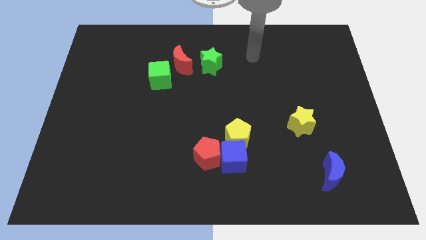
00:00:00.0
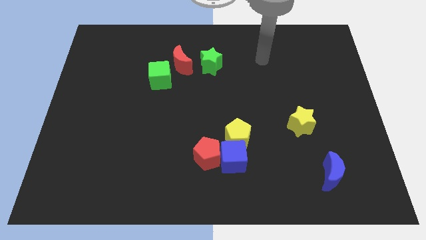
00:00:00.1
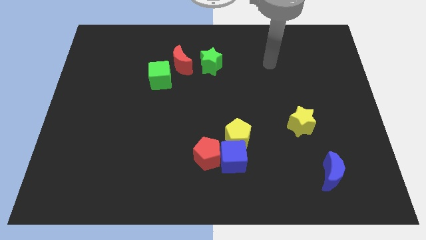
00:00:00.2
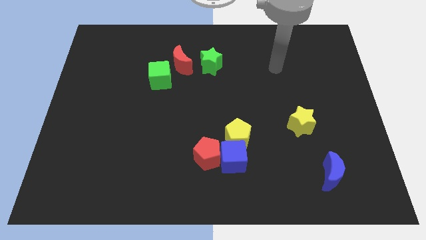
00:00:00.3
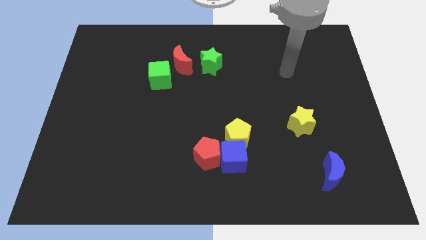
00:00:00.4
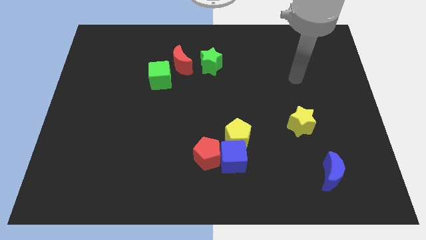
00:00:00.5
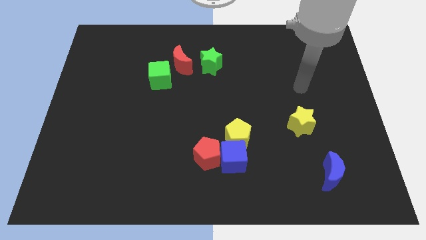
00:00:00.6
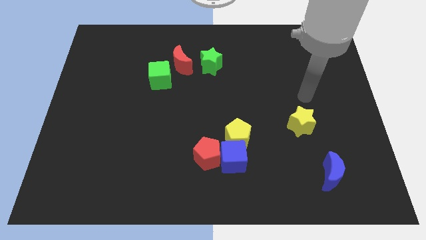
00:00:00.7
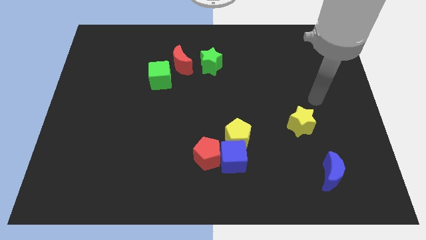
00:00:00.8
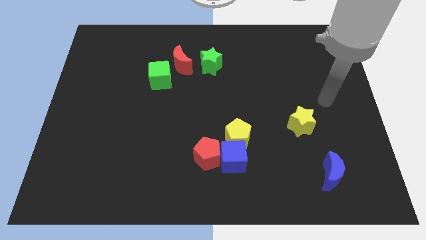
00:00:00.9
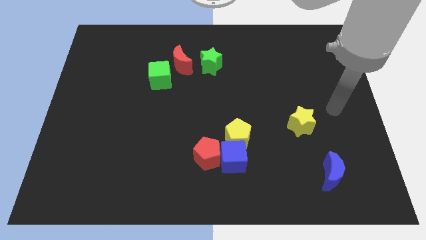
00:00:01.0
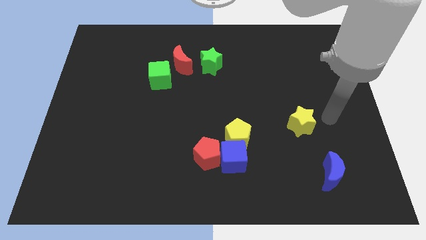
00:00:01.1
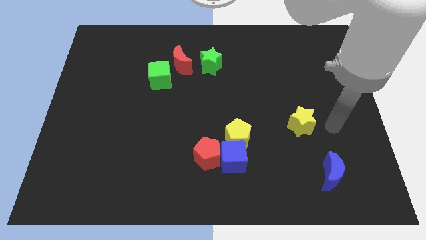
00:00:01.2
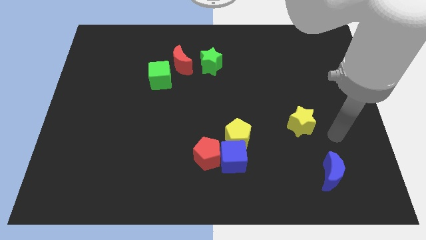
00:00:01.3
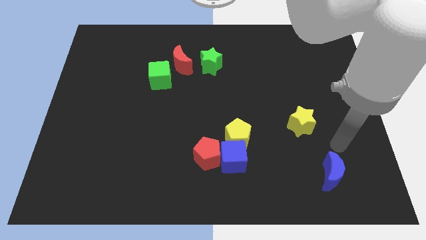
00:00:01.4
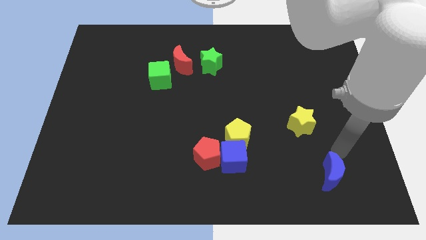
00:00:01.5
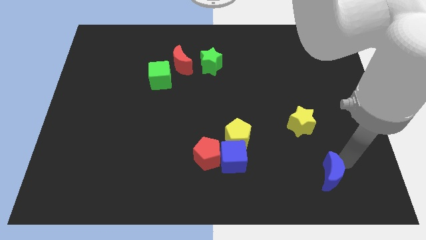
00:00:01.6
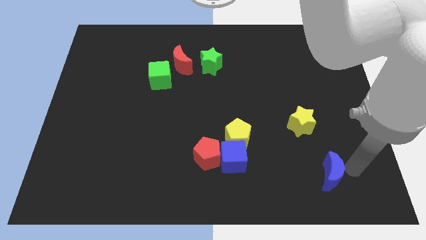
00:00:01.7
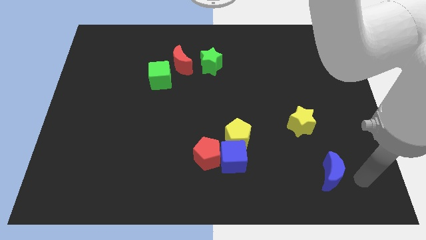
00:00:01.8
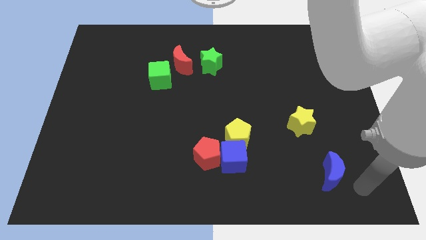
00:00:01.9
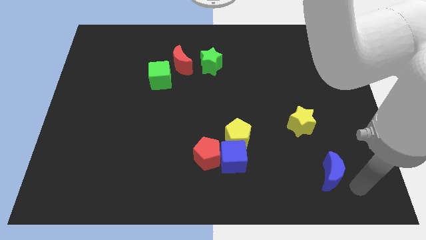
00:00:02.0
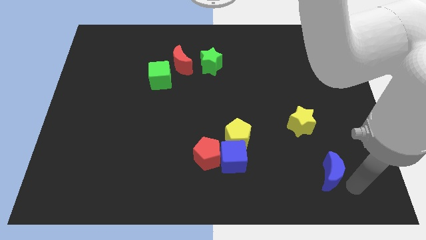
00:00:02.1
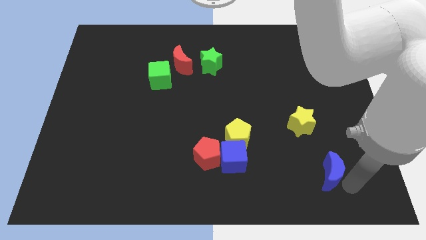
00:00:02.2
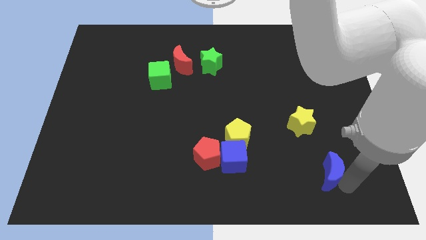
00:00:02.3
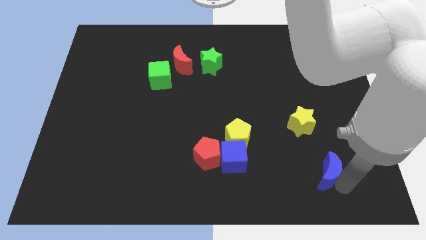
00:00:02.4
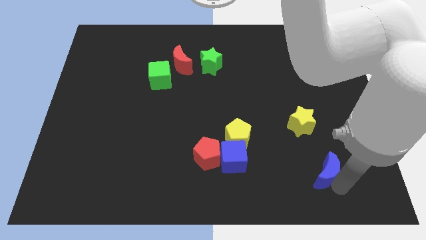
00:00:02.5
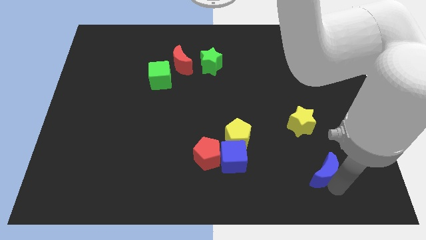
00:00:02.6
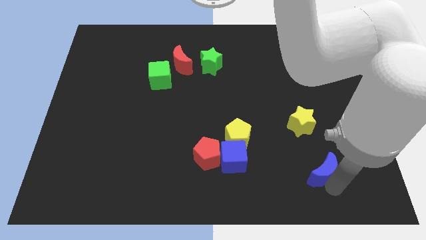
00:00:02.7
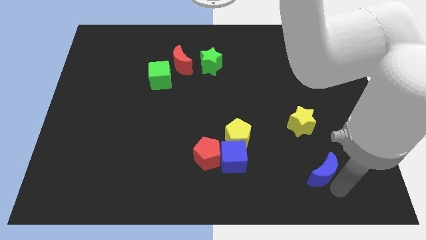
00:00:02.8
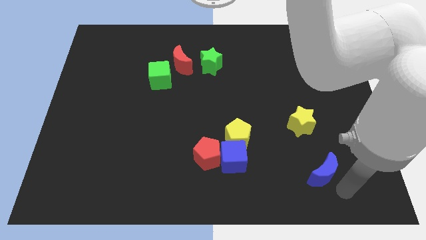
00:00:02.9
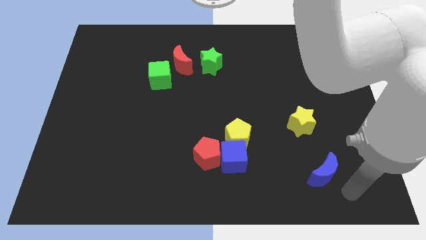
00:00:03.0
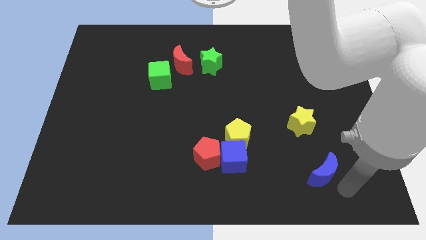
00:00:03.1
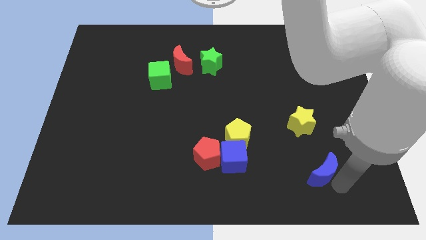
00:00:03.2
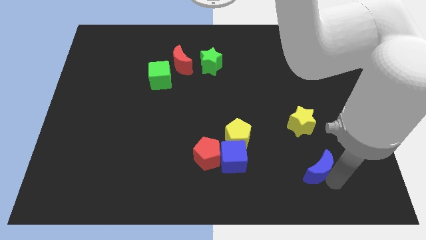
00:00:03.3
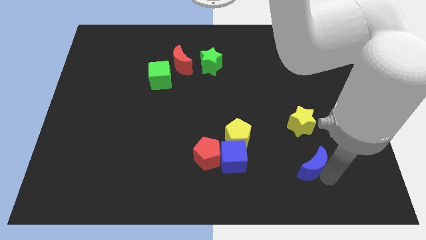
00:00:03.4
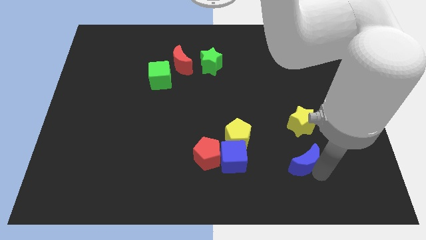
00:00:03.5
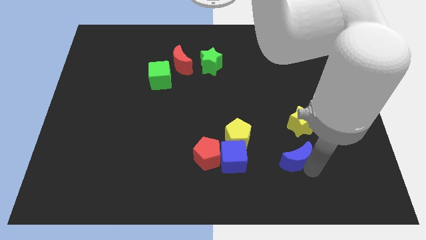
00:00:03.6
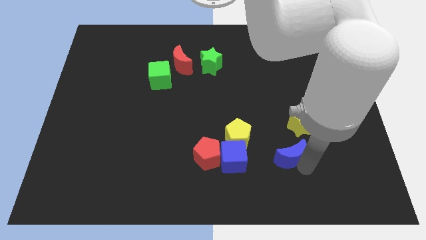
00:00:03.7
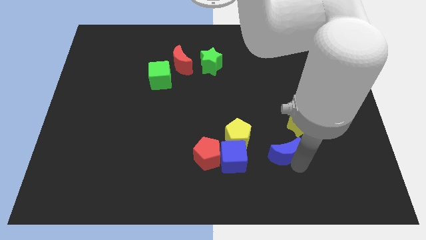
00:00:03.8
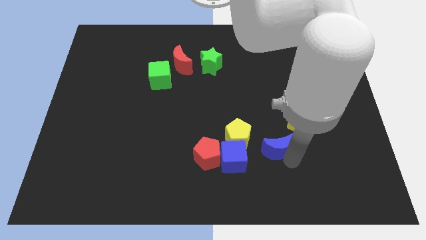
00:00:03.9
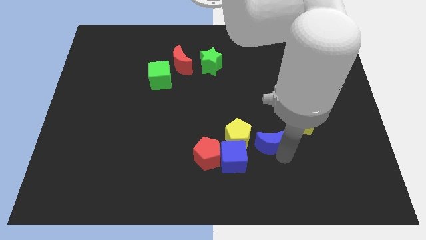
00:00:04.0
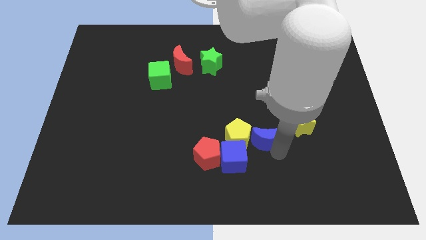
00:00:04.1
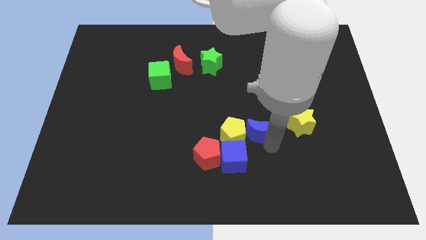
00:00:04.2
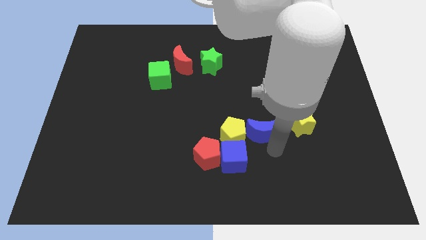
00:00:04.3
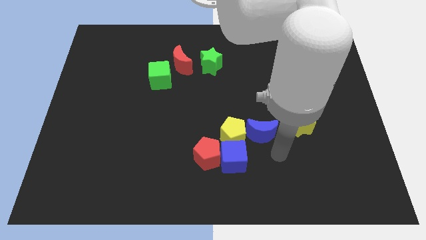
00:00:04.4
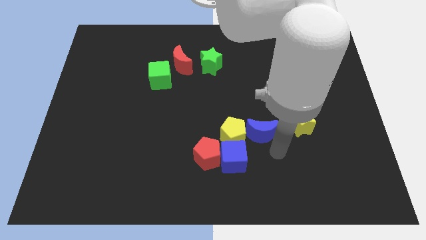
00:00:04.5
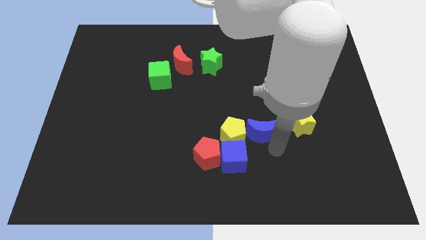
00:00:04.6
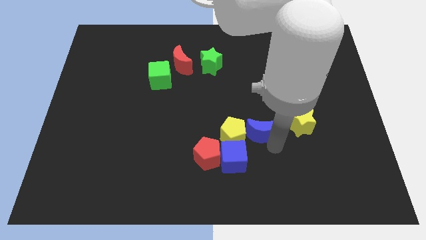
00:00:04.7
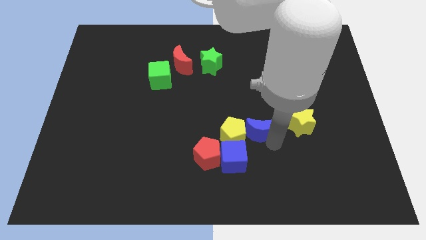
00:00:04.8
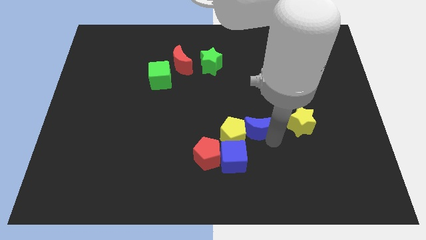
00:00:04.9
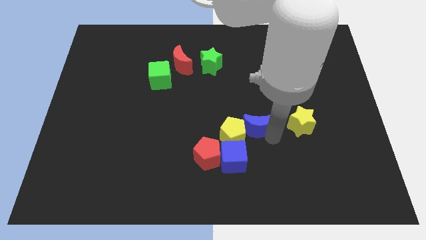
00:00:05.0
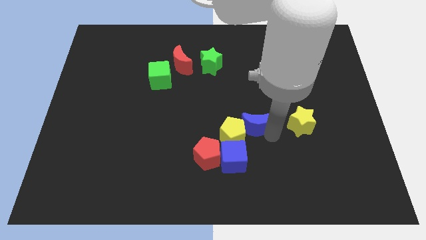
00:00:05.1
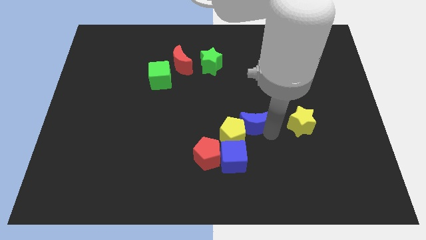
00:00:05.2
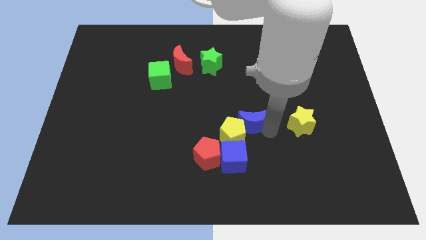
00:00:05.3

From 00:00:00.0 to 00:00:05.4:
slide the blue moon upwards and left diagonally

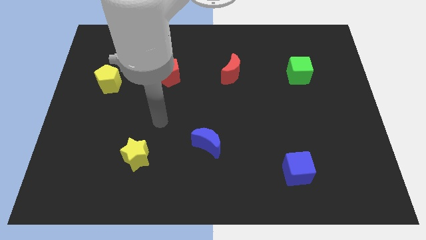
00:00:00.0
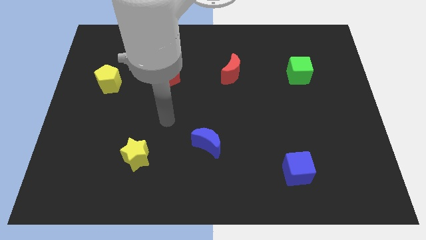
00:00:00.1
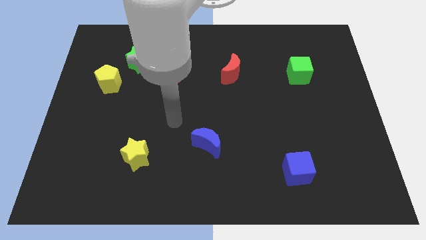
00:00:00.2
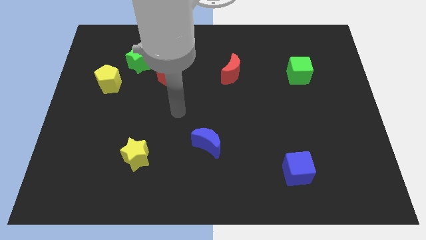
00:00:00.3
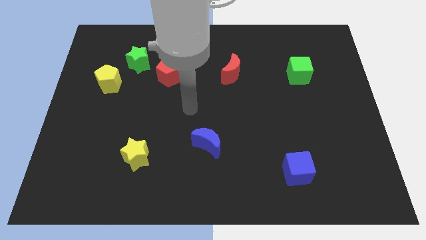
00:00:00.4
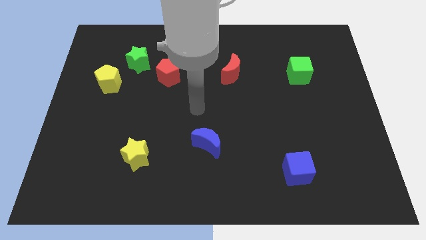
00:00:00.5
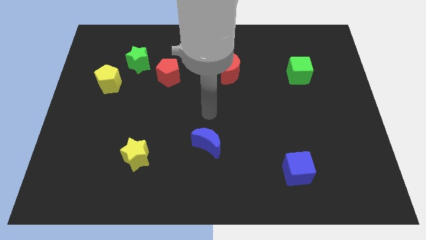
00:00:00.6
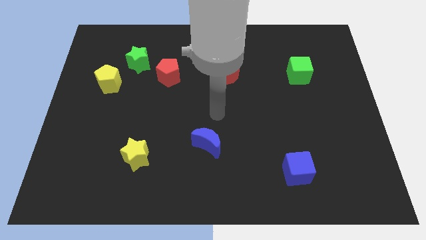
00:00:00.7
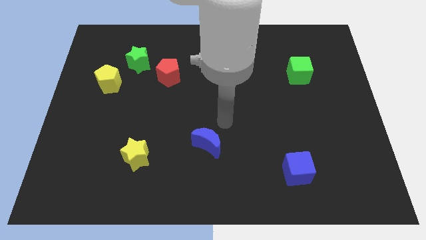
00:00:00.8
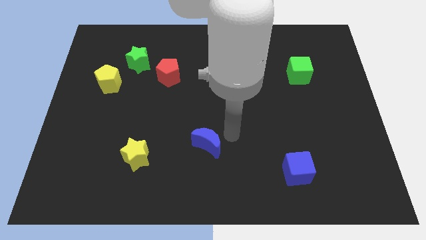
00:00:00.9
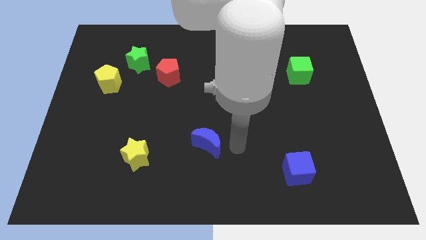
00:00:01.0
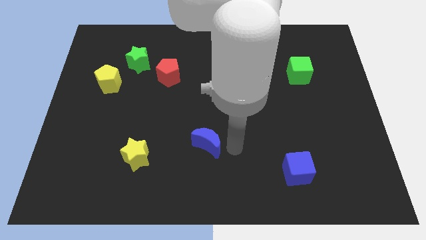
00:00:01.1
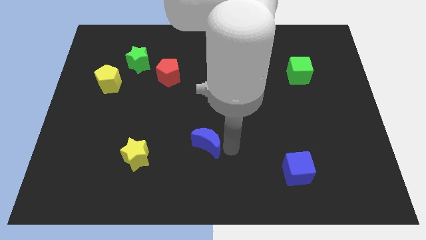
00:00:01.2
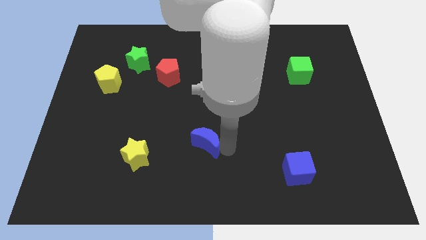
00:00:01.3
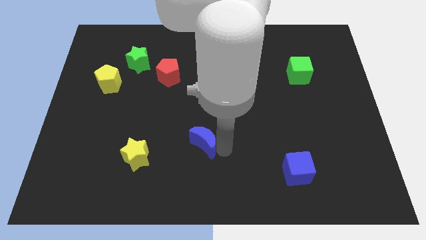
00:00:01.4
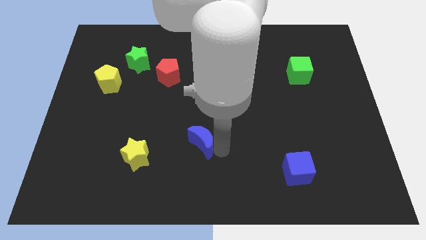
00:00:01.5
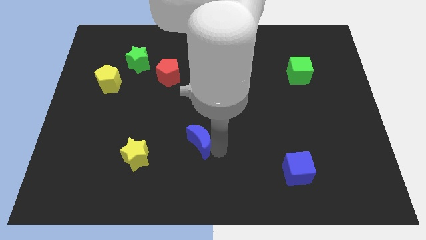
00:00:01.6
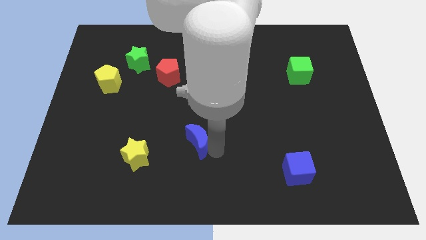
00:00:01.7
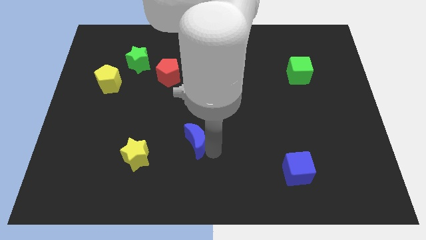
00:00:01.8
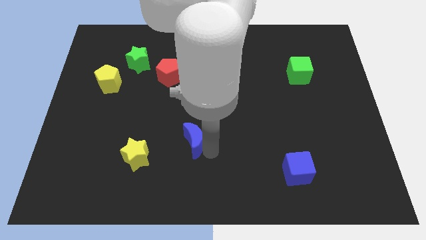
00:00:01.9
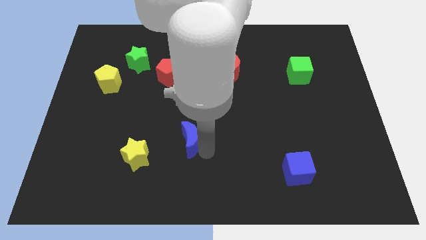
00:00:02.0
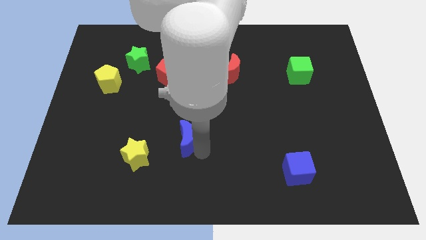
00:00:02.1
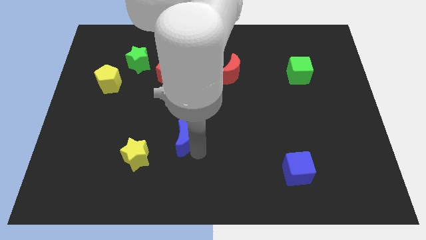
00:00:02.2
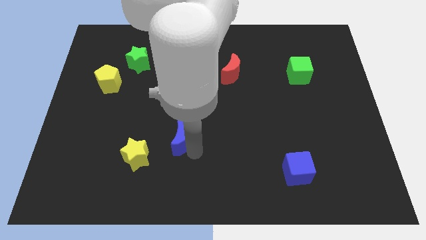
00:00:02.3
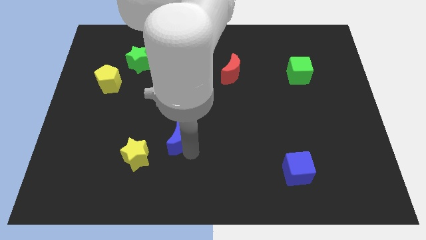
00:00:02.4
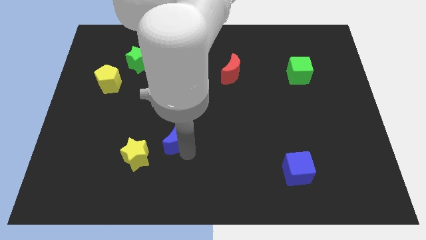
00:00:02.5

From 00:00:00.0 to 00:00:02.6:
slightly move the blue moon to the left

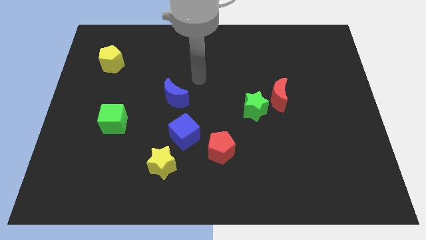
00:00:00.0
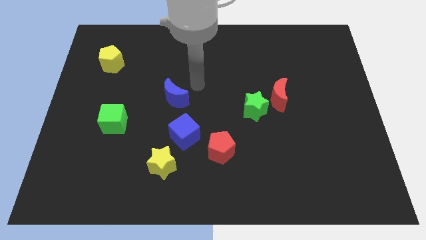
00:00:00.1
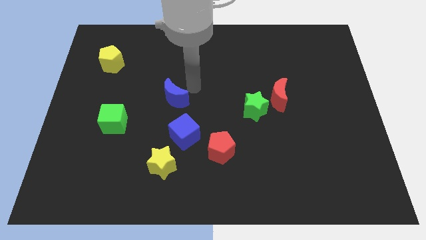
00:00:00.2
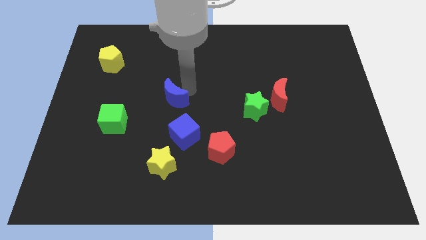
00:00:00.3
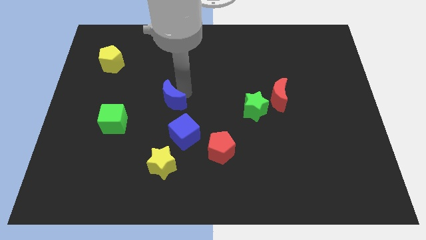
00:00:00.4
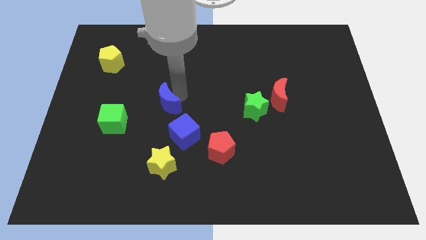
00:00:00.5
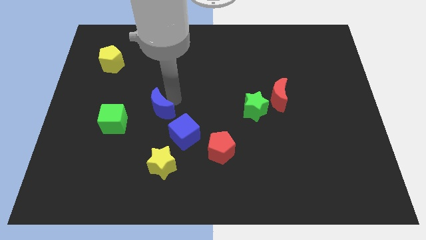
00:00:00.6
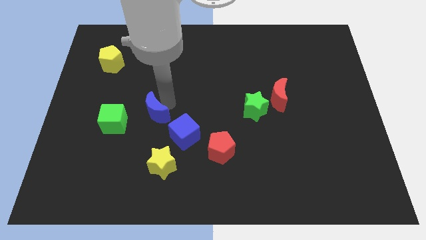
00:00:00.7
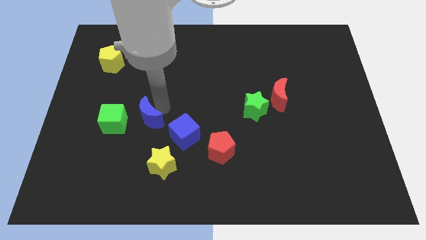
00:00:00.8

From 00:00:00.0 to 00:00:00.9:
slide the blue moon a little downwards and to the left diagonally
